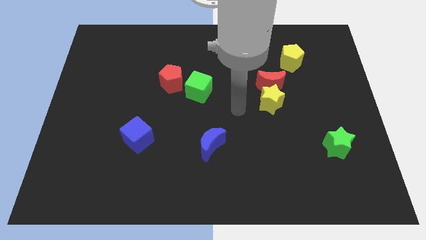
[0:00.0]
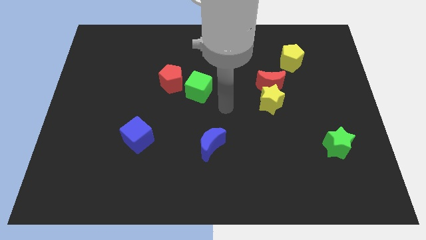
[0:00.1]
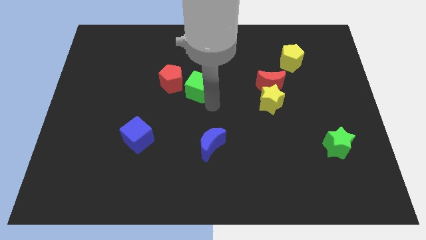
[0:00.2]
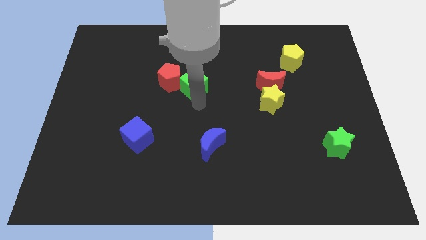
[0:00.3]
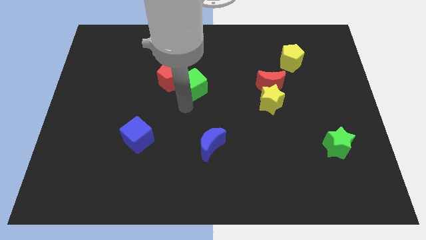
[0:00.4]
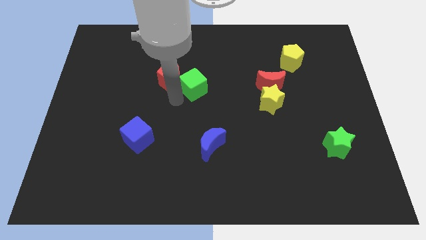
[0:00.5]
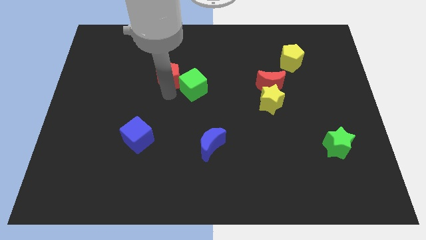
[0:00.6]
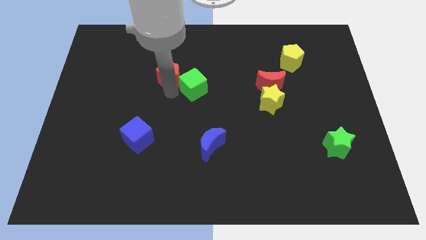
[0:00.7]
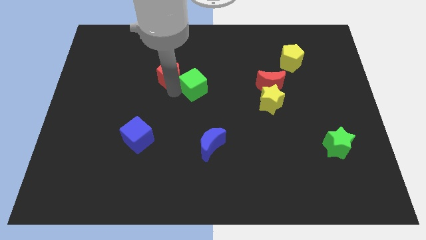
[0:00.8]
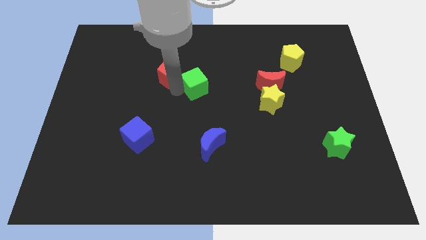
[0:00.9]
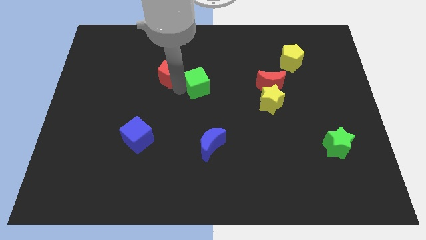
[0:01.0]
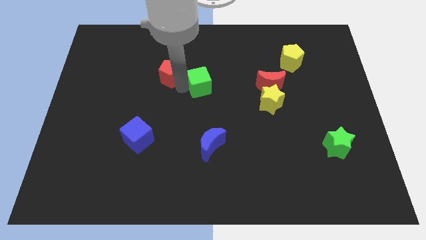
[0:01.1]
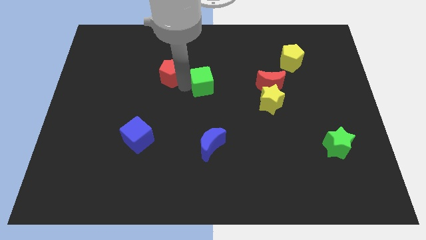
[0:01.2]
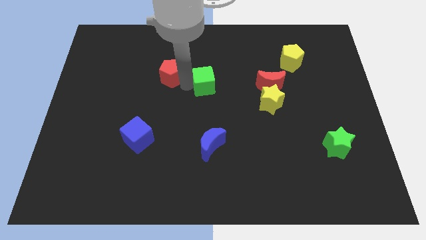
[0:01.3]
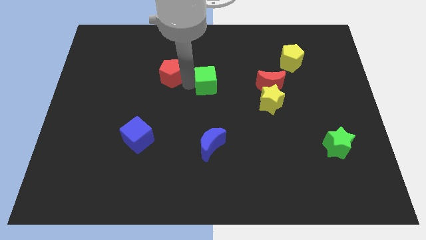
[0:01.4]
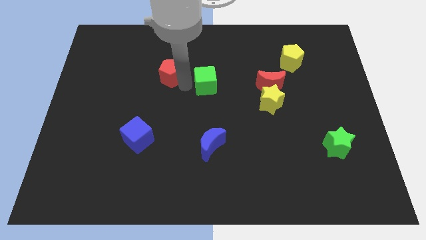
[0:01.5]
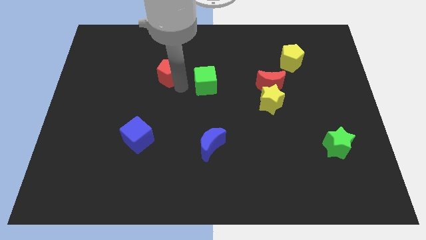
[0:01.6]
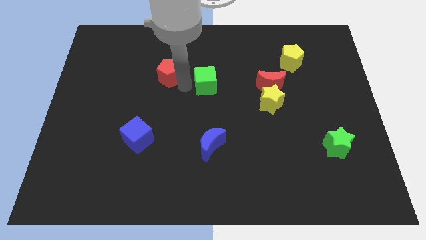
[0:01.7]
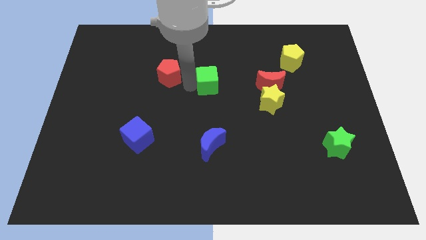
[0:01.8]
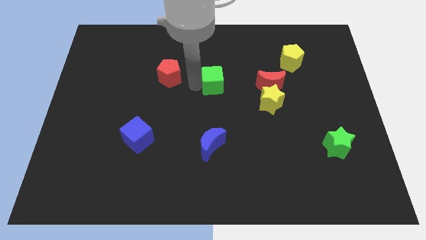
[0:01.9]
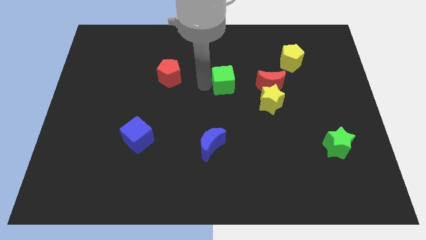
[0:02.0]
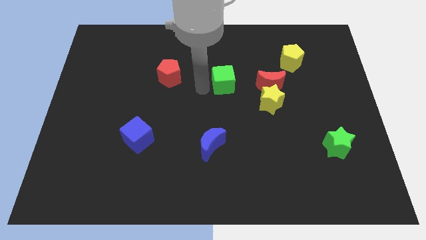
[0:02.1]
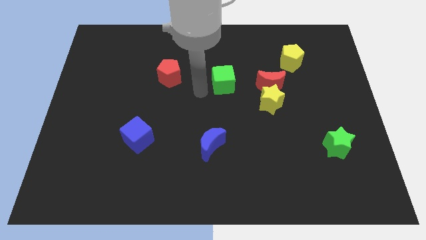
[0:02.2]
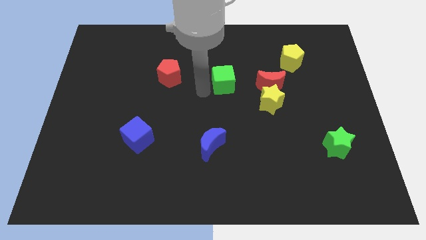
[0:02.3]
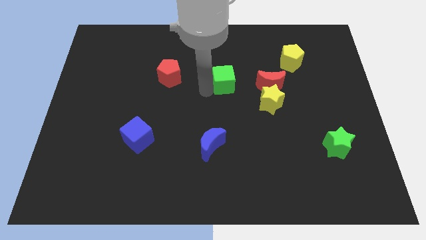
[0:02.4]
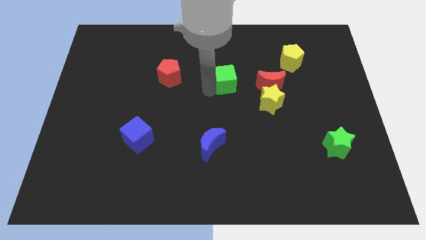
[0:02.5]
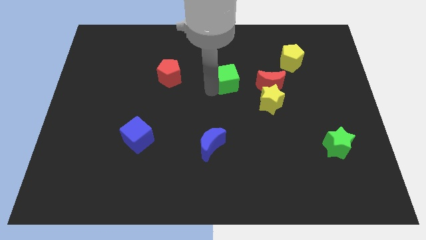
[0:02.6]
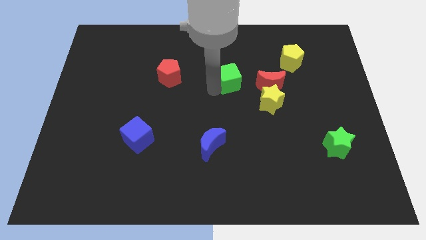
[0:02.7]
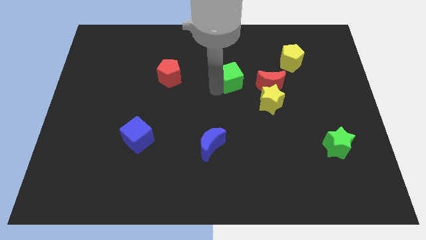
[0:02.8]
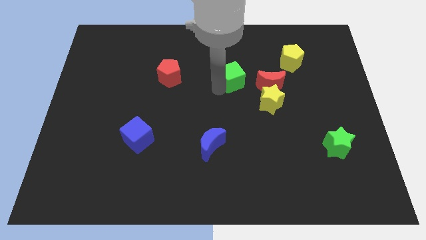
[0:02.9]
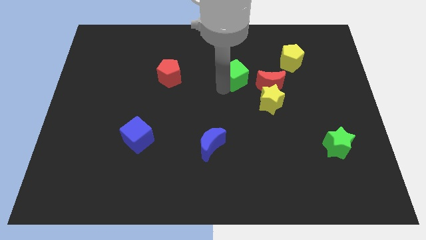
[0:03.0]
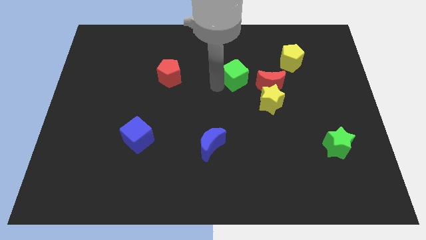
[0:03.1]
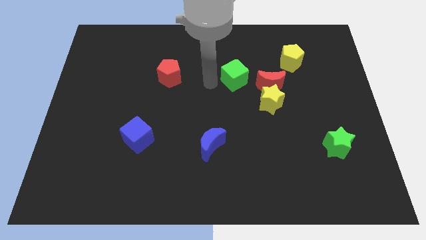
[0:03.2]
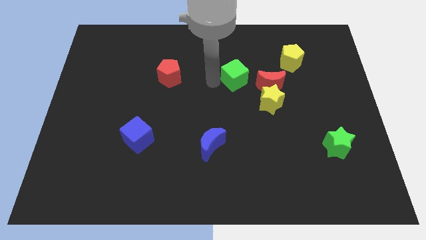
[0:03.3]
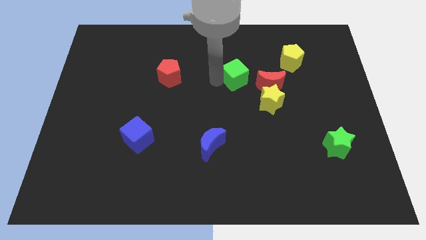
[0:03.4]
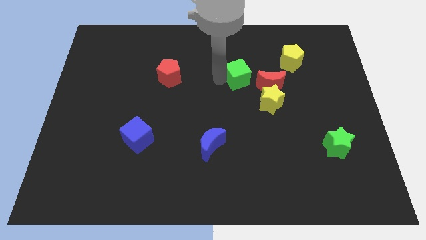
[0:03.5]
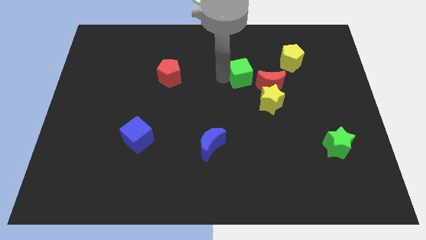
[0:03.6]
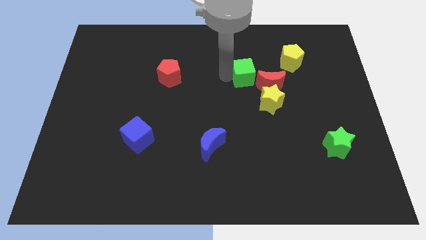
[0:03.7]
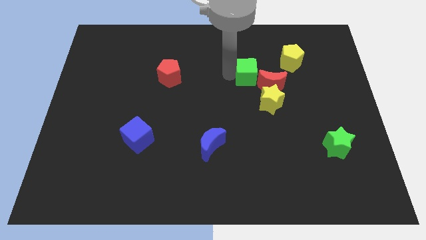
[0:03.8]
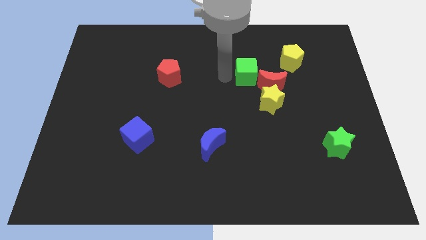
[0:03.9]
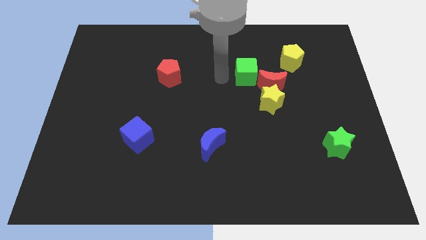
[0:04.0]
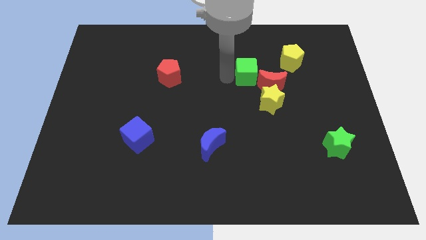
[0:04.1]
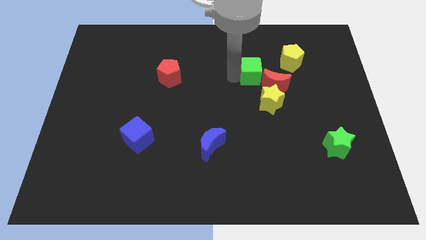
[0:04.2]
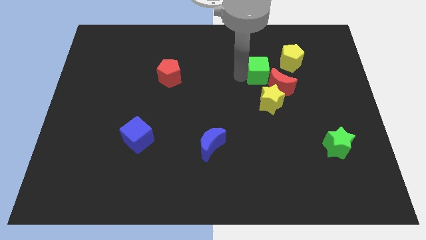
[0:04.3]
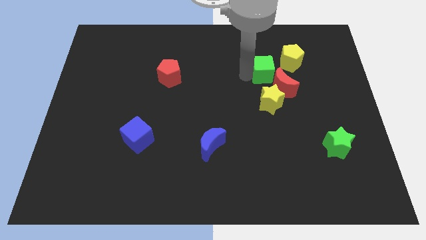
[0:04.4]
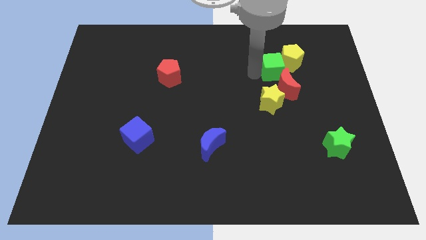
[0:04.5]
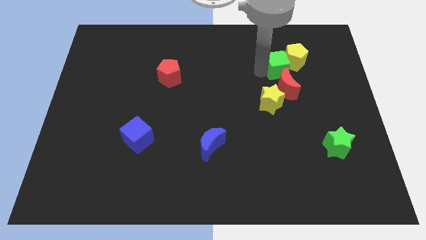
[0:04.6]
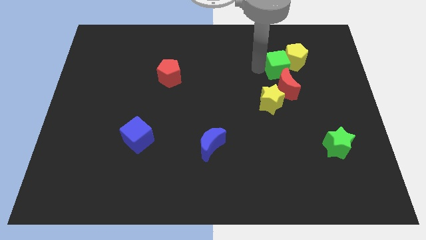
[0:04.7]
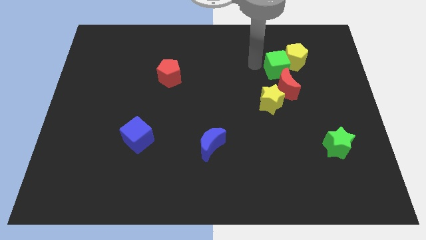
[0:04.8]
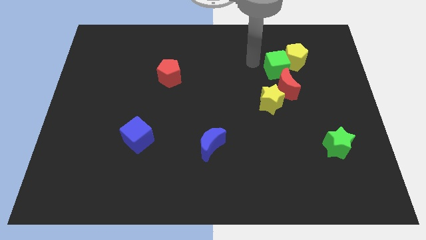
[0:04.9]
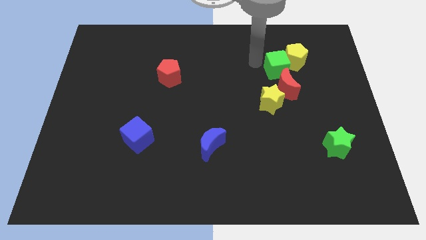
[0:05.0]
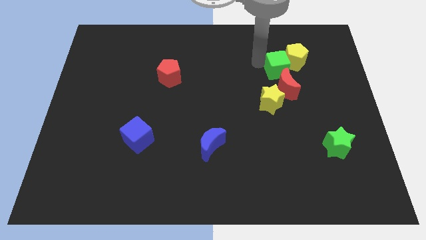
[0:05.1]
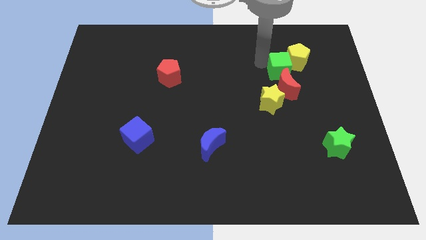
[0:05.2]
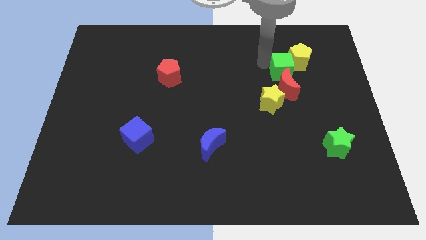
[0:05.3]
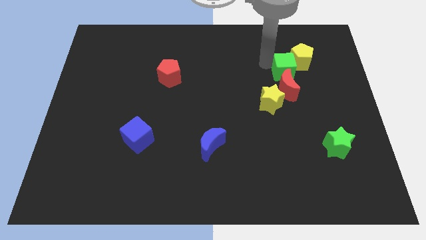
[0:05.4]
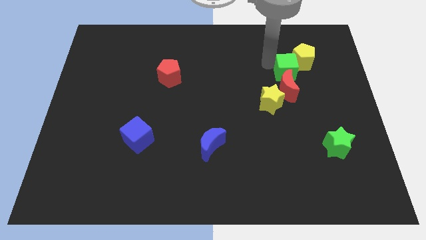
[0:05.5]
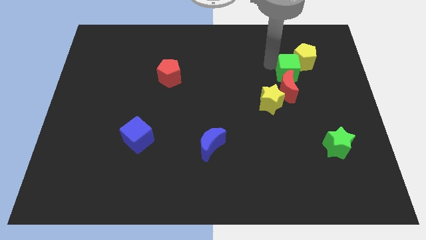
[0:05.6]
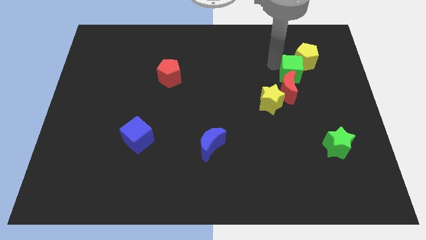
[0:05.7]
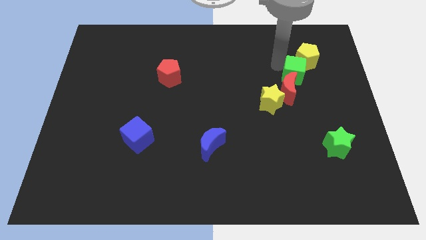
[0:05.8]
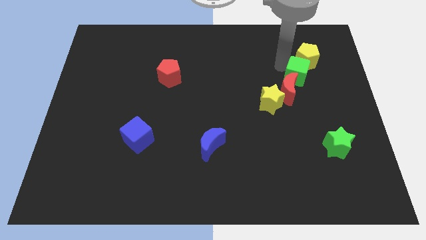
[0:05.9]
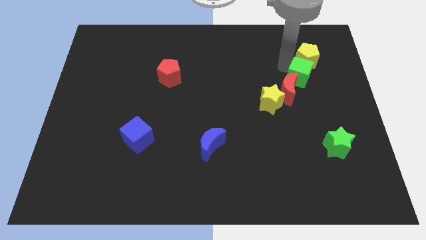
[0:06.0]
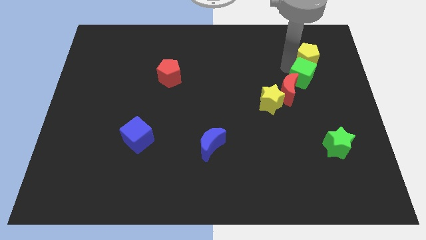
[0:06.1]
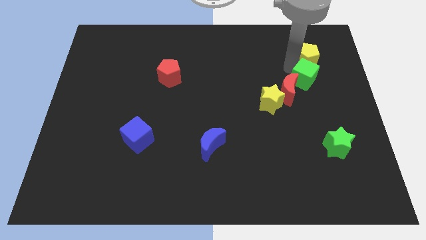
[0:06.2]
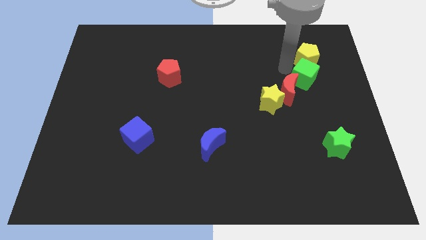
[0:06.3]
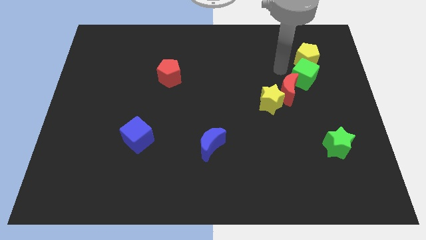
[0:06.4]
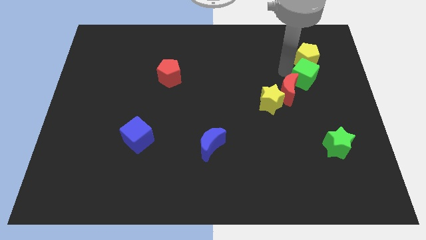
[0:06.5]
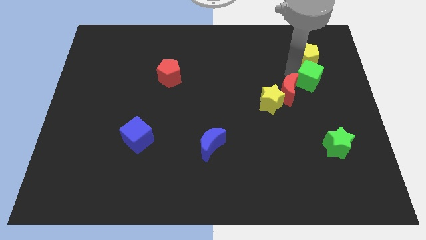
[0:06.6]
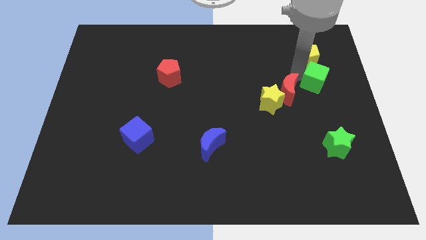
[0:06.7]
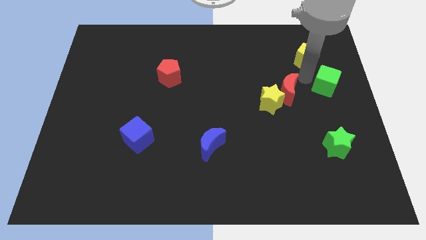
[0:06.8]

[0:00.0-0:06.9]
push the green cube to the right side of the board
